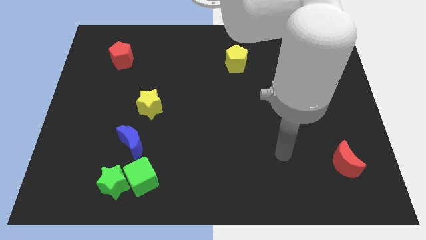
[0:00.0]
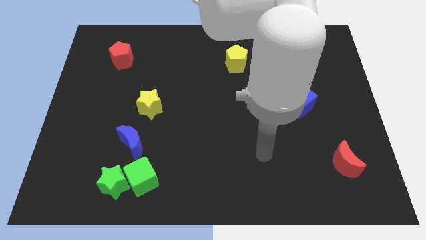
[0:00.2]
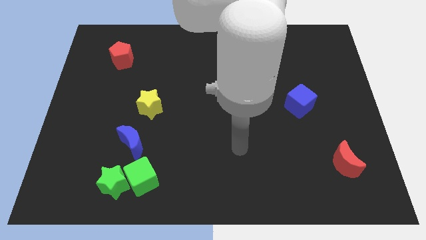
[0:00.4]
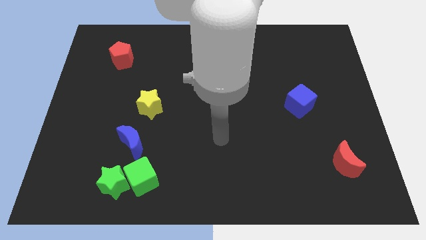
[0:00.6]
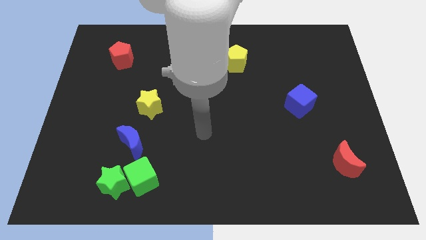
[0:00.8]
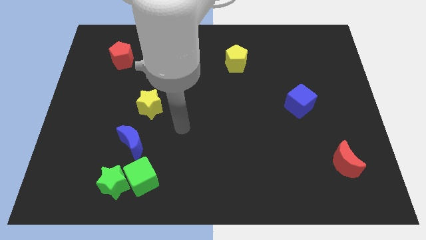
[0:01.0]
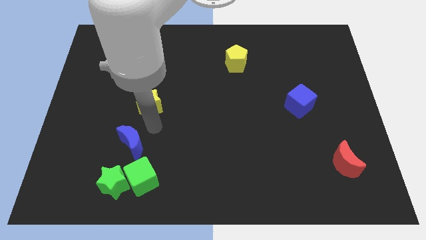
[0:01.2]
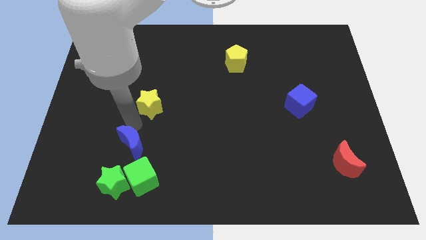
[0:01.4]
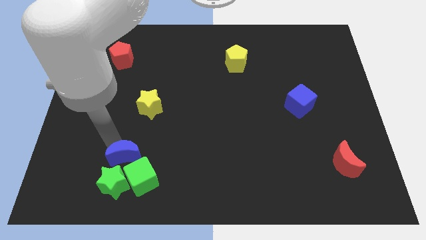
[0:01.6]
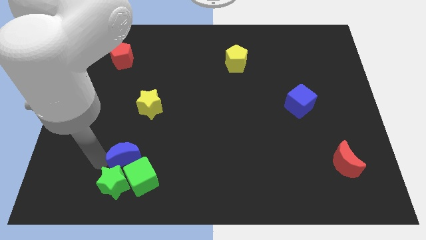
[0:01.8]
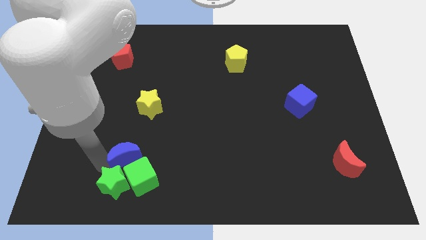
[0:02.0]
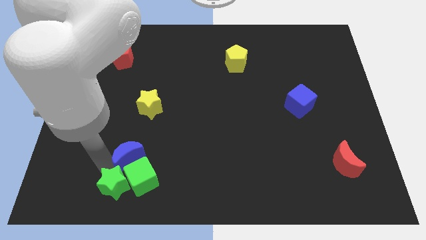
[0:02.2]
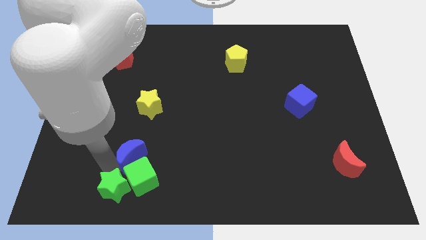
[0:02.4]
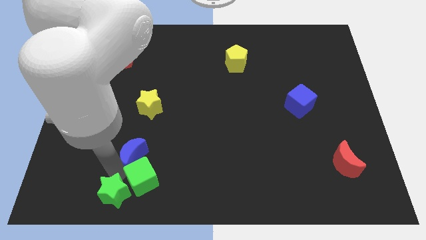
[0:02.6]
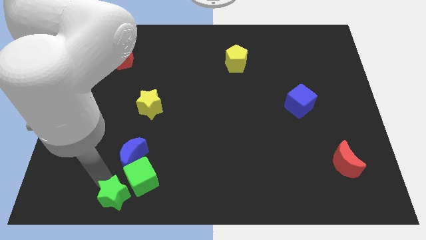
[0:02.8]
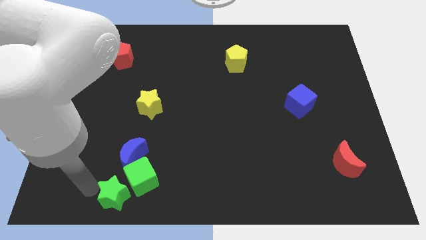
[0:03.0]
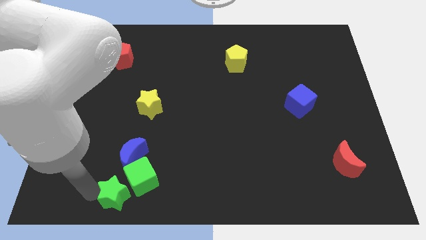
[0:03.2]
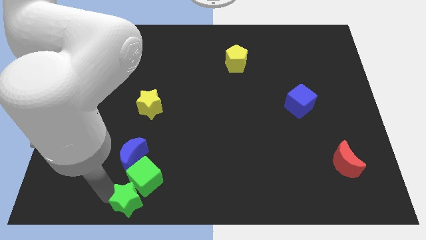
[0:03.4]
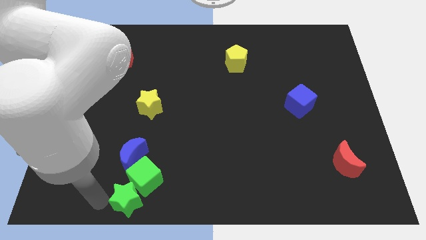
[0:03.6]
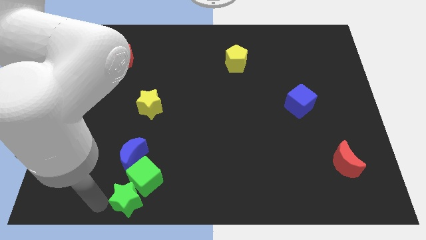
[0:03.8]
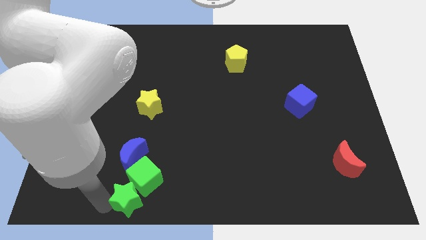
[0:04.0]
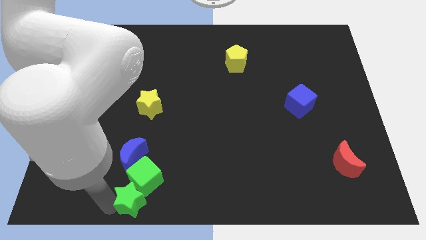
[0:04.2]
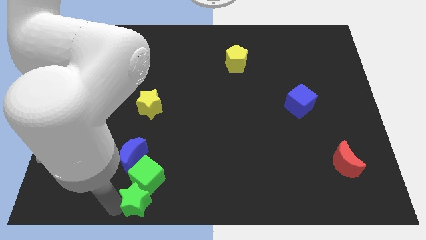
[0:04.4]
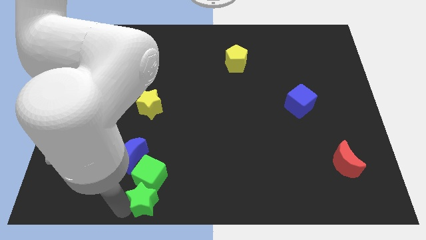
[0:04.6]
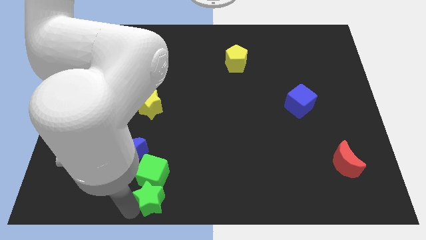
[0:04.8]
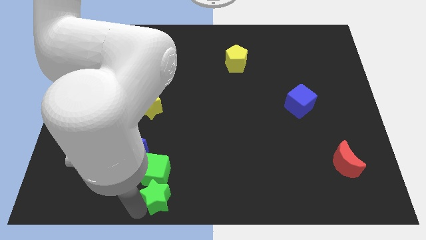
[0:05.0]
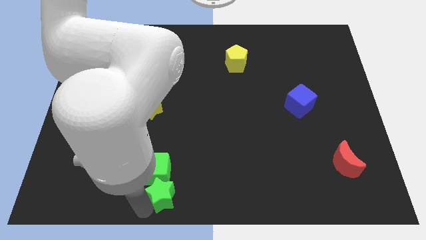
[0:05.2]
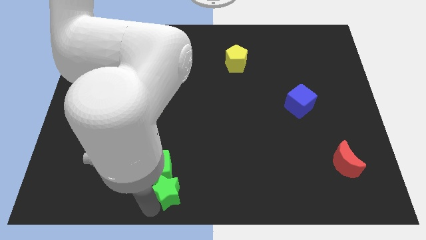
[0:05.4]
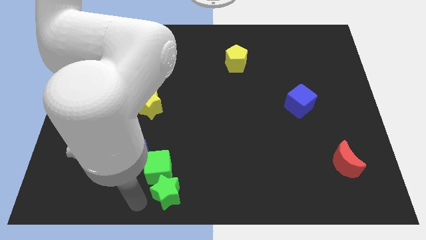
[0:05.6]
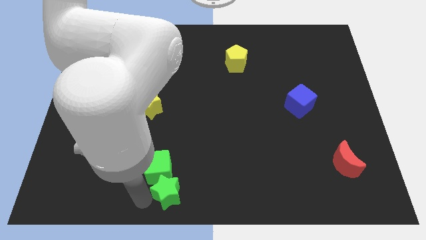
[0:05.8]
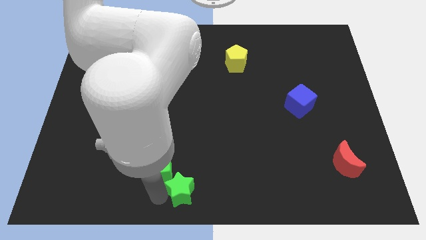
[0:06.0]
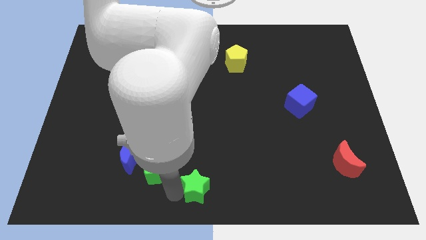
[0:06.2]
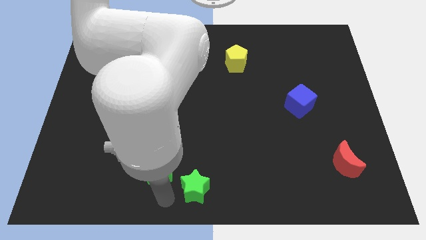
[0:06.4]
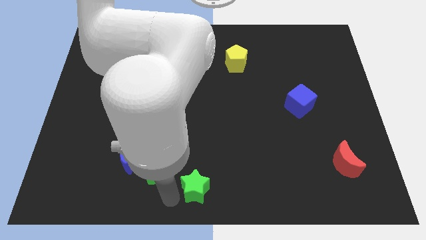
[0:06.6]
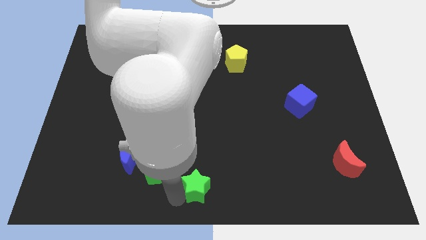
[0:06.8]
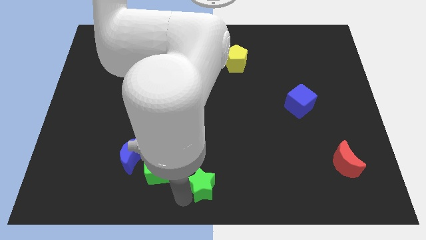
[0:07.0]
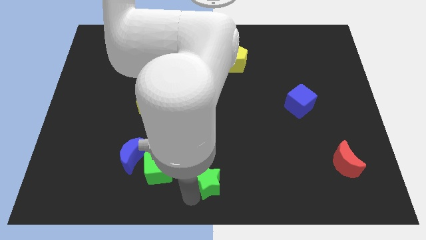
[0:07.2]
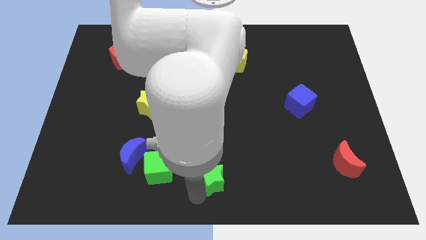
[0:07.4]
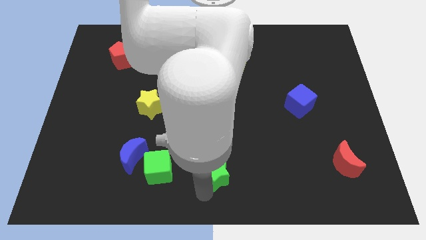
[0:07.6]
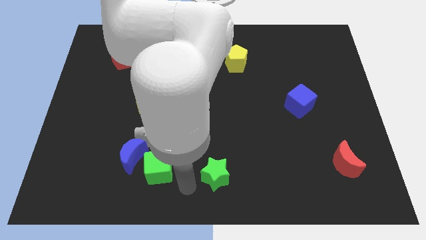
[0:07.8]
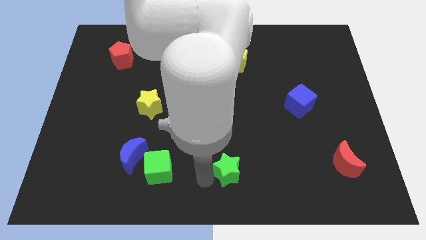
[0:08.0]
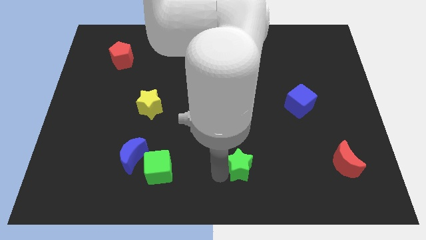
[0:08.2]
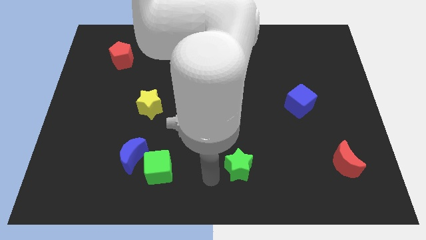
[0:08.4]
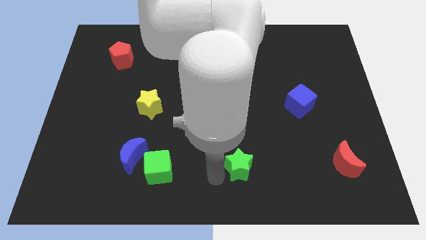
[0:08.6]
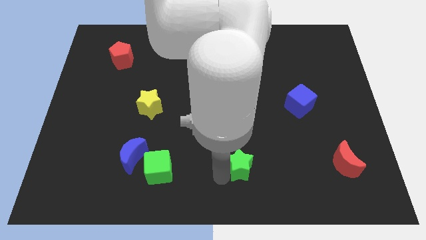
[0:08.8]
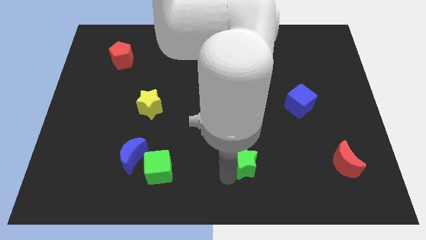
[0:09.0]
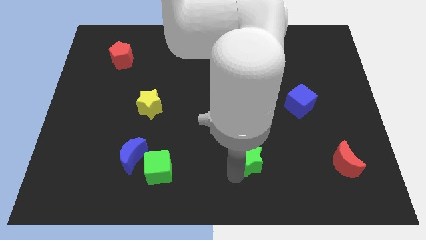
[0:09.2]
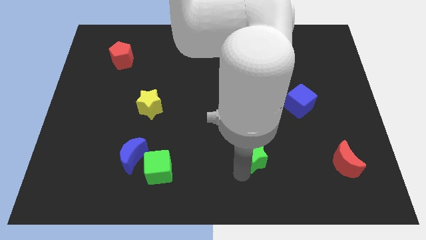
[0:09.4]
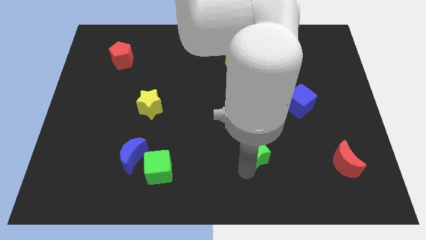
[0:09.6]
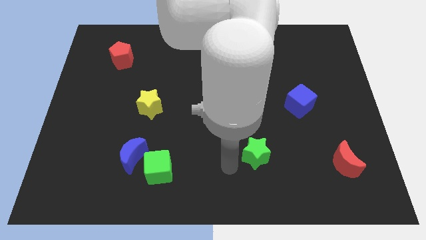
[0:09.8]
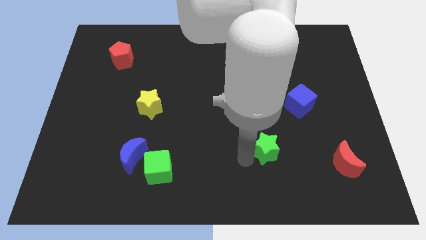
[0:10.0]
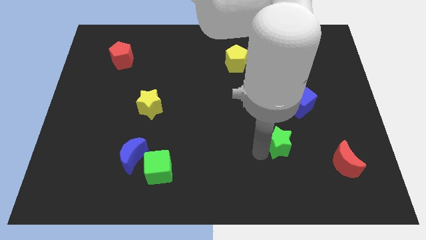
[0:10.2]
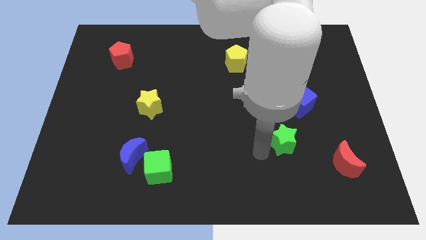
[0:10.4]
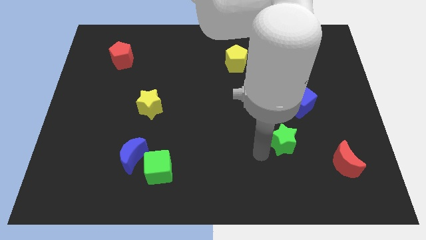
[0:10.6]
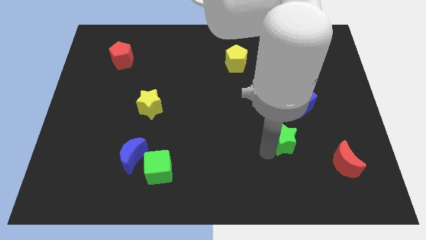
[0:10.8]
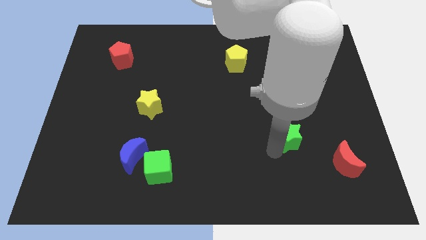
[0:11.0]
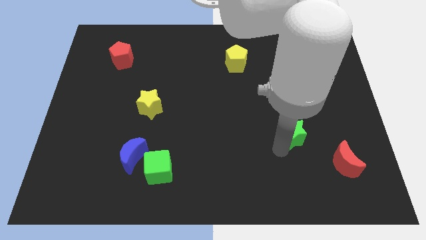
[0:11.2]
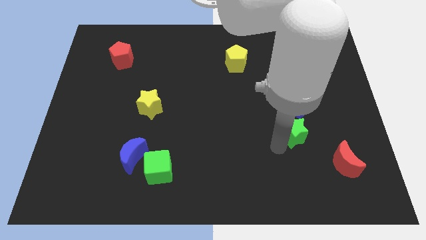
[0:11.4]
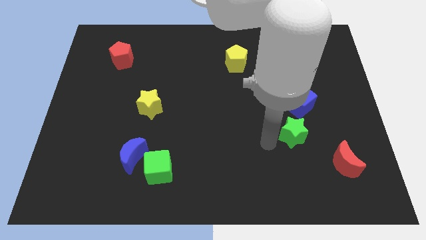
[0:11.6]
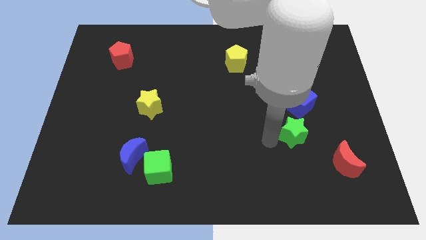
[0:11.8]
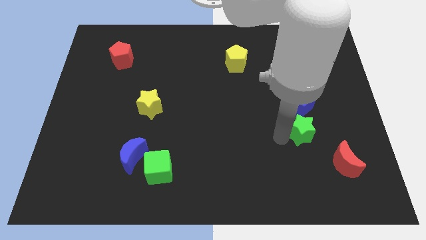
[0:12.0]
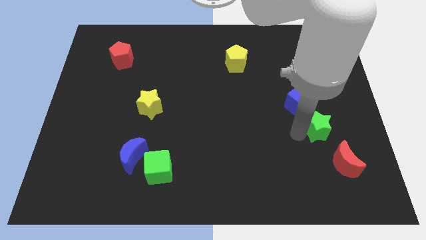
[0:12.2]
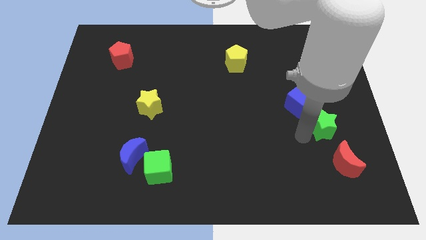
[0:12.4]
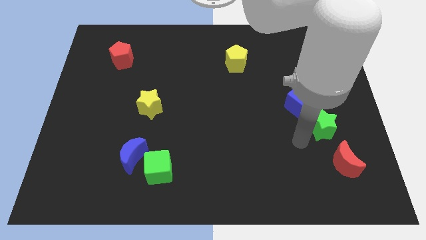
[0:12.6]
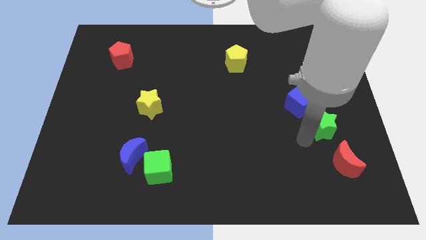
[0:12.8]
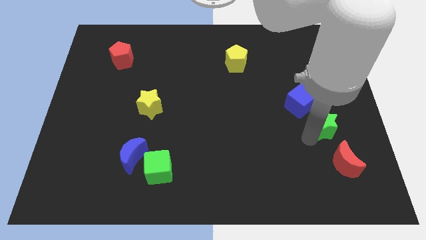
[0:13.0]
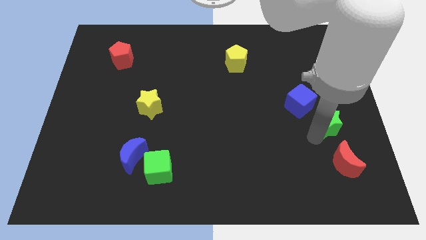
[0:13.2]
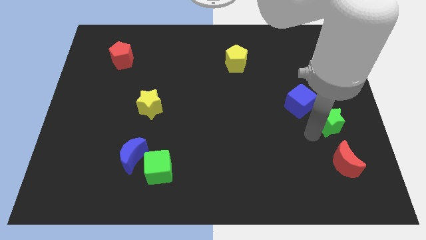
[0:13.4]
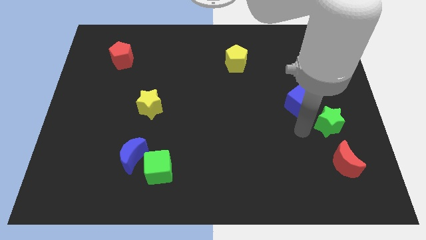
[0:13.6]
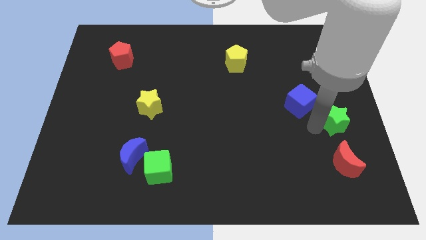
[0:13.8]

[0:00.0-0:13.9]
push the green star to the center right

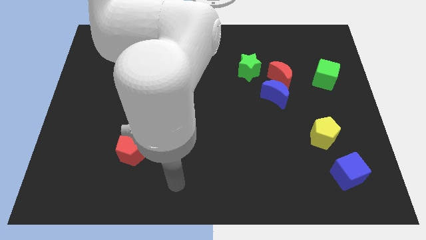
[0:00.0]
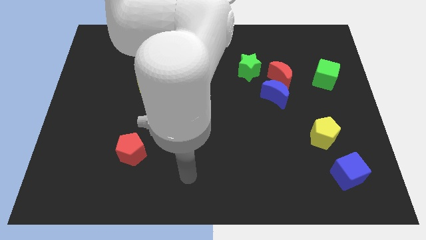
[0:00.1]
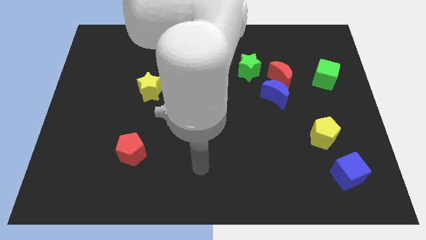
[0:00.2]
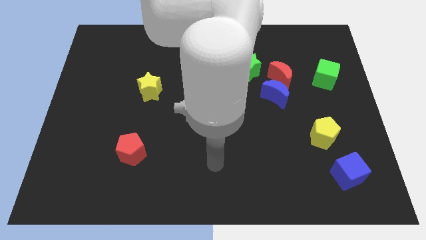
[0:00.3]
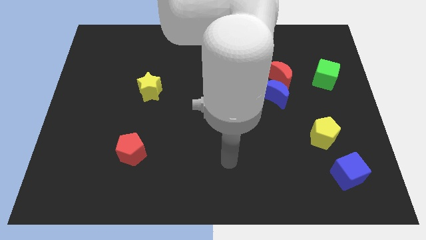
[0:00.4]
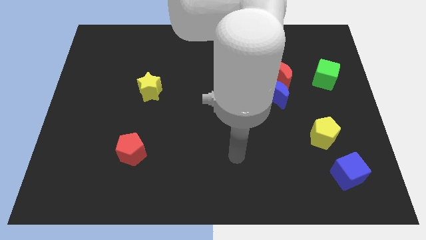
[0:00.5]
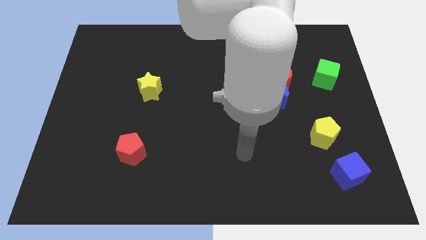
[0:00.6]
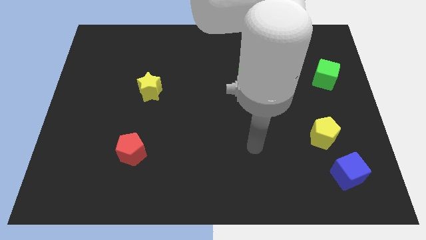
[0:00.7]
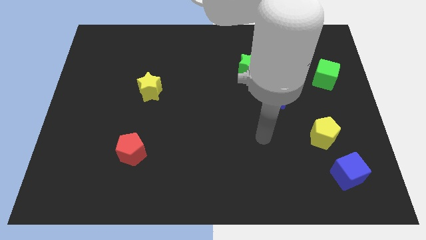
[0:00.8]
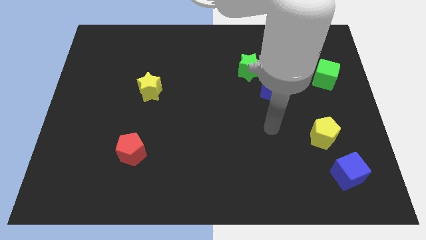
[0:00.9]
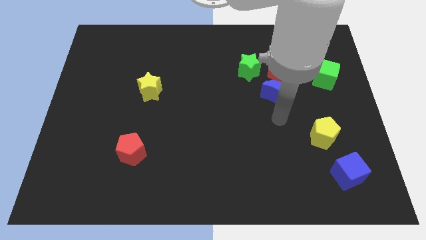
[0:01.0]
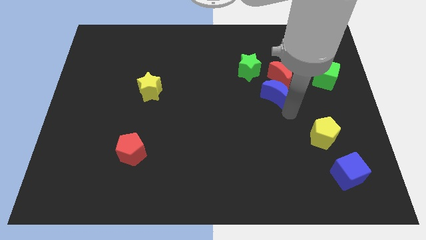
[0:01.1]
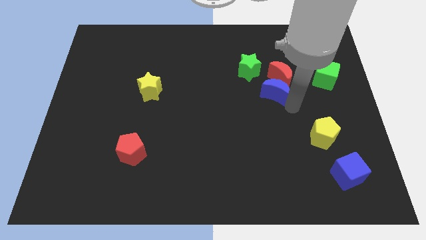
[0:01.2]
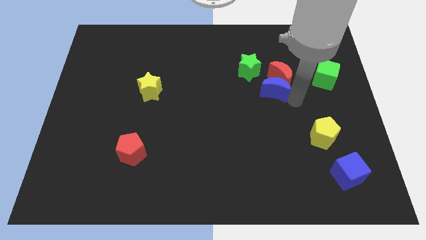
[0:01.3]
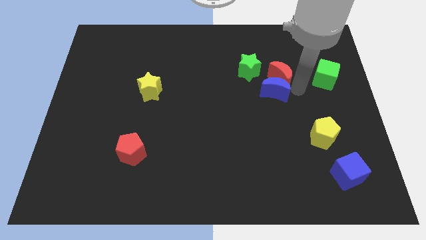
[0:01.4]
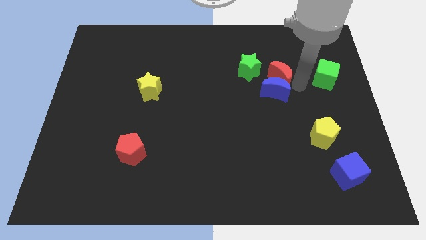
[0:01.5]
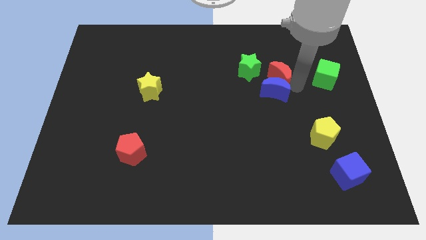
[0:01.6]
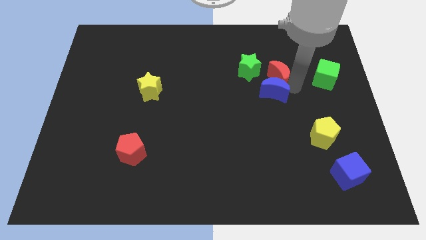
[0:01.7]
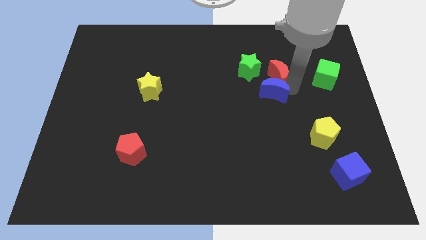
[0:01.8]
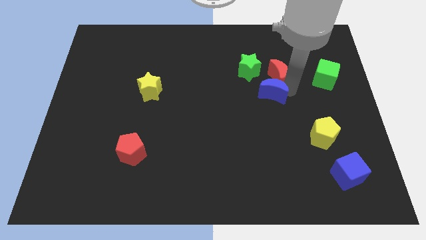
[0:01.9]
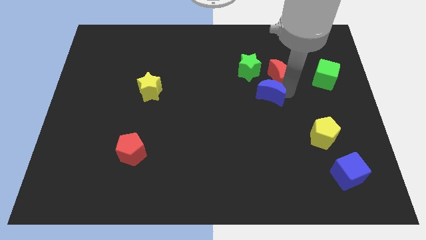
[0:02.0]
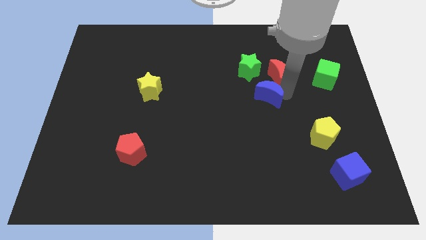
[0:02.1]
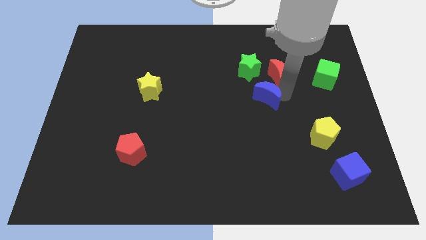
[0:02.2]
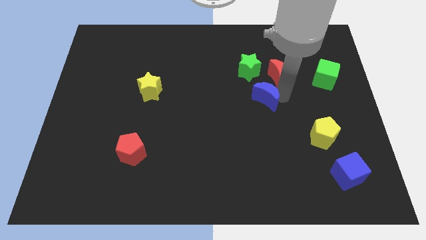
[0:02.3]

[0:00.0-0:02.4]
move the blue moon to the middle
